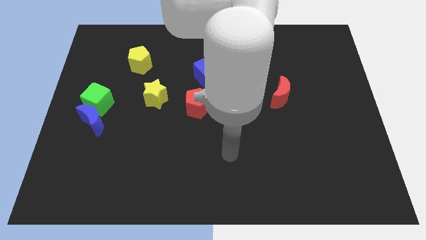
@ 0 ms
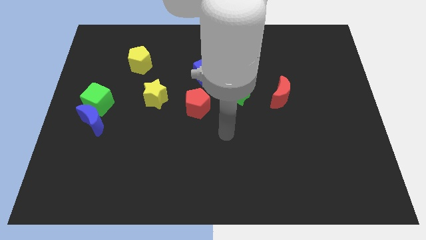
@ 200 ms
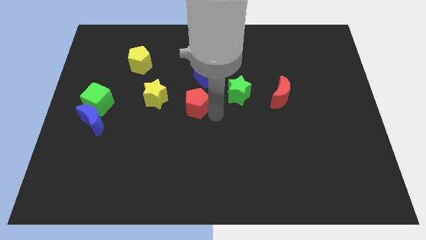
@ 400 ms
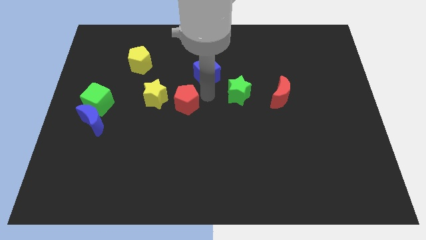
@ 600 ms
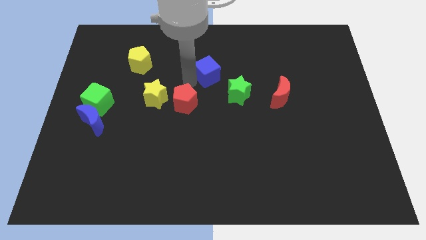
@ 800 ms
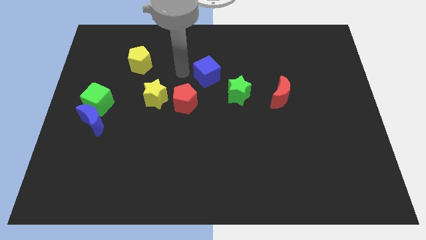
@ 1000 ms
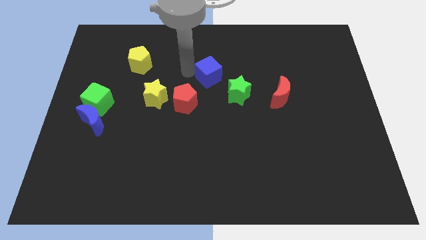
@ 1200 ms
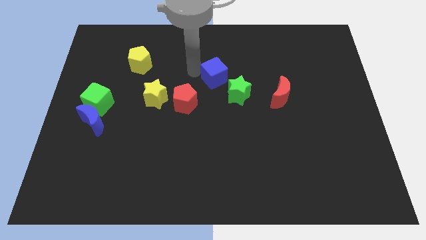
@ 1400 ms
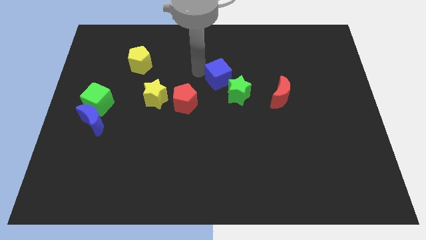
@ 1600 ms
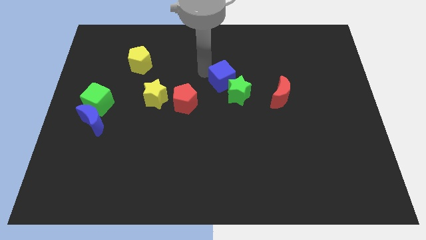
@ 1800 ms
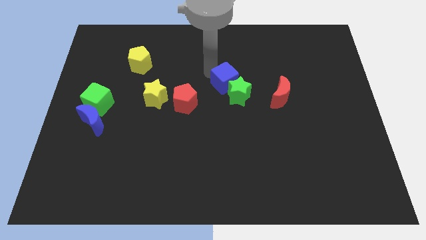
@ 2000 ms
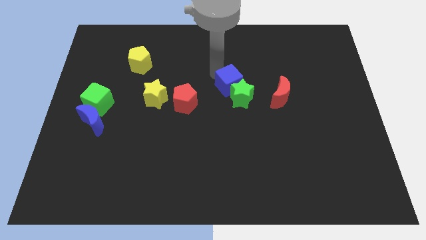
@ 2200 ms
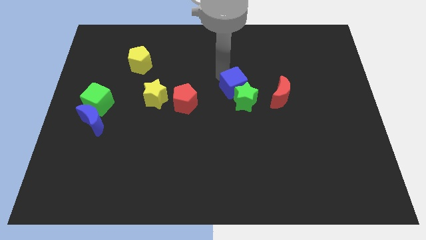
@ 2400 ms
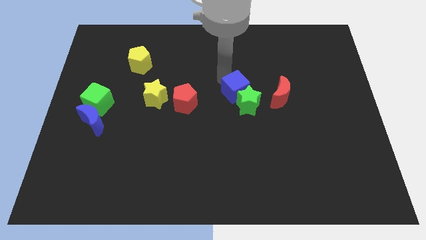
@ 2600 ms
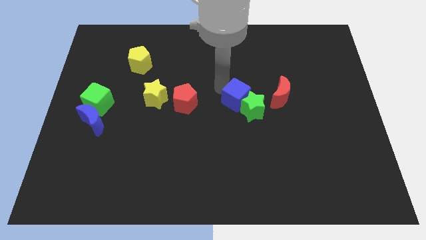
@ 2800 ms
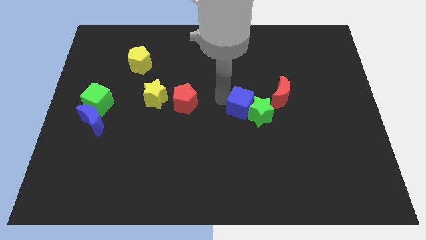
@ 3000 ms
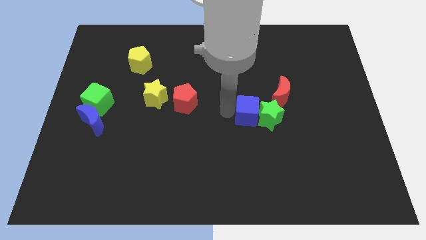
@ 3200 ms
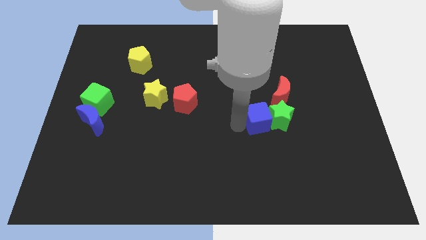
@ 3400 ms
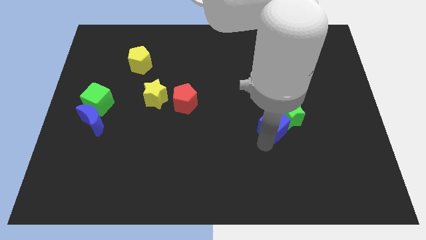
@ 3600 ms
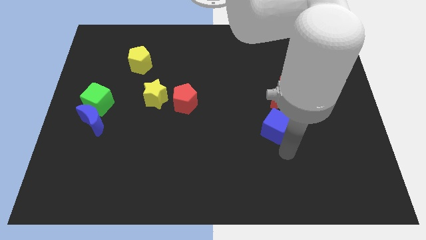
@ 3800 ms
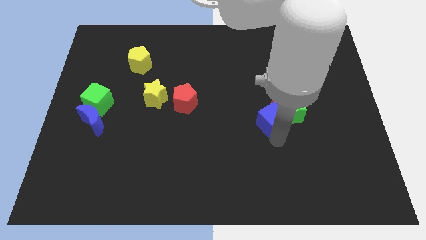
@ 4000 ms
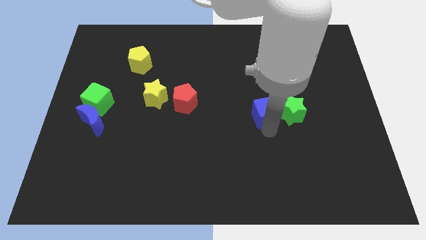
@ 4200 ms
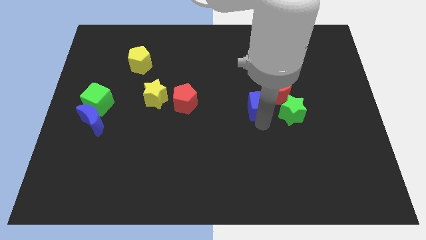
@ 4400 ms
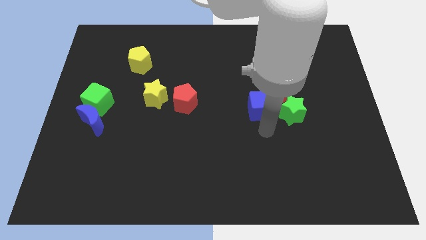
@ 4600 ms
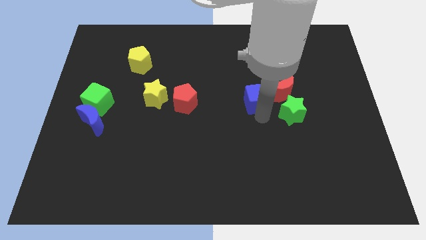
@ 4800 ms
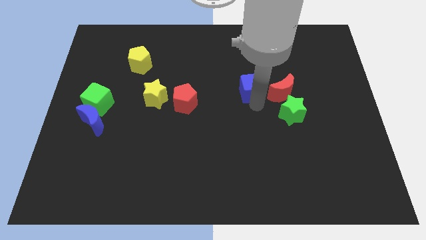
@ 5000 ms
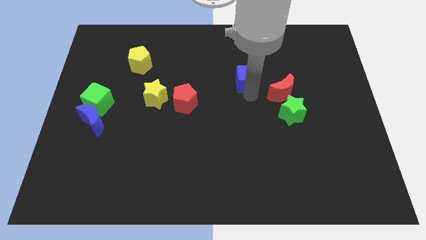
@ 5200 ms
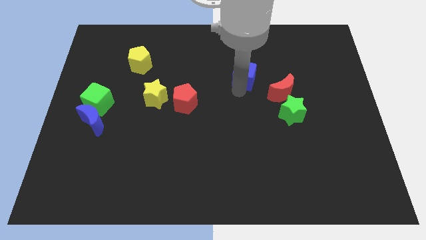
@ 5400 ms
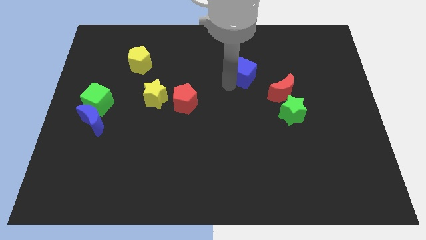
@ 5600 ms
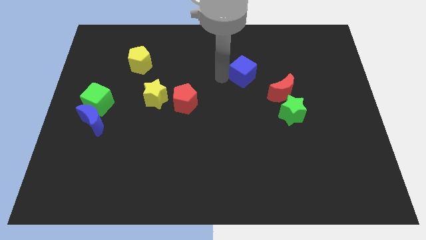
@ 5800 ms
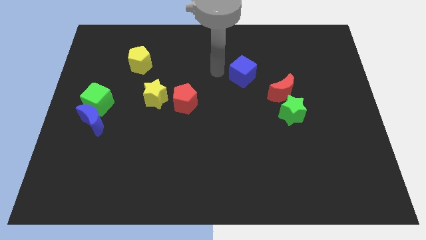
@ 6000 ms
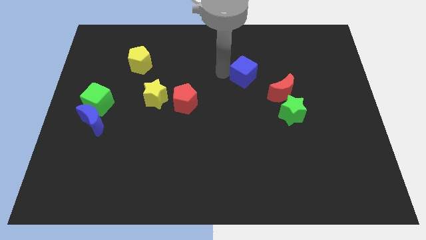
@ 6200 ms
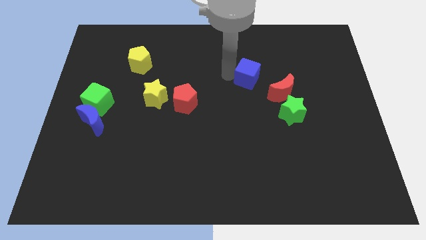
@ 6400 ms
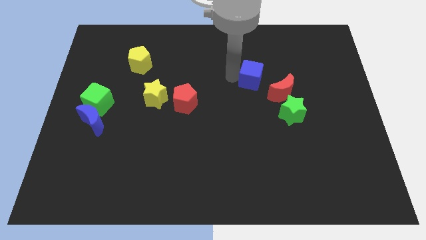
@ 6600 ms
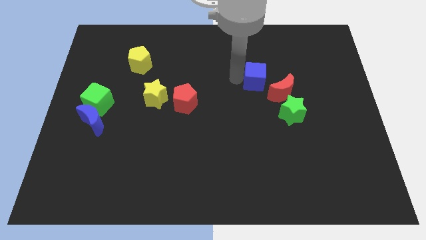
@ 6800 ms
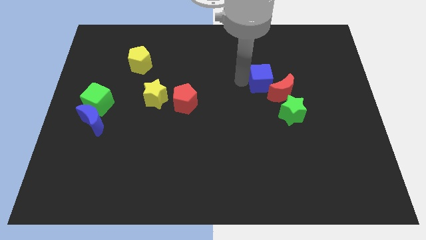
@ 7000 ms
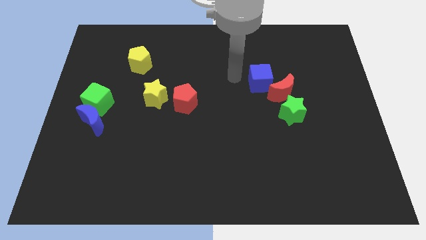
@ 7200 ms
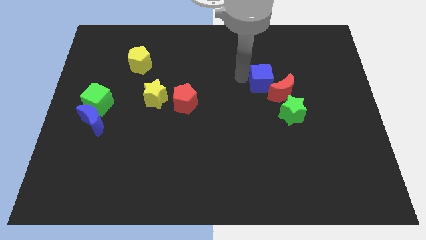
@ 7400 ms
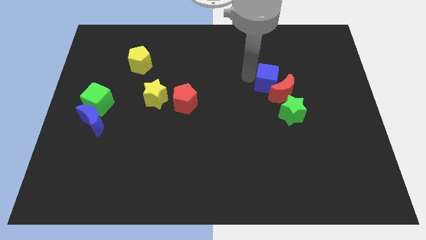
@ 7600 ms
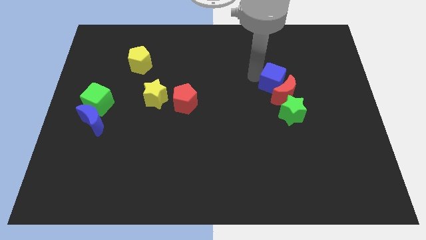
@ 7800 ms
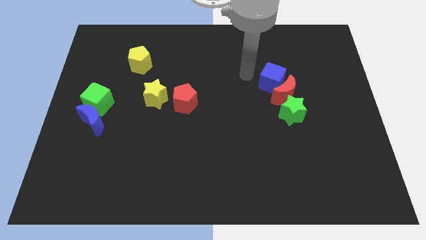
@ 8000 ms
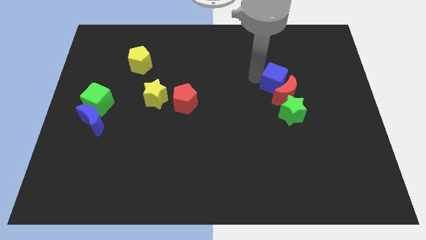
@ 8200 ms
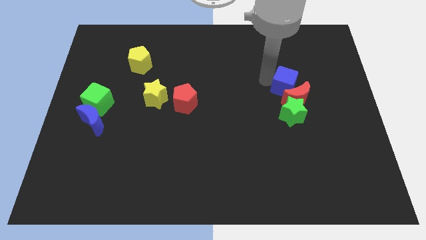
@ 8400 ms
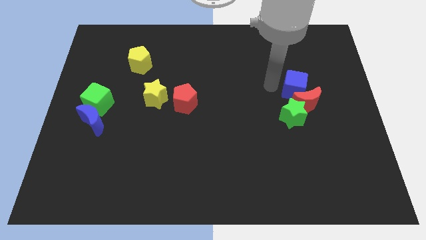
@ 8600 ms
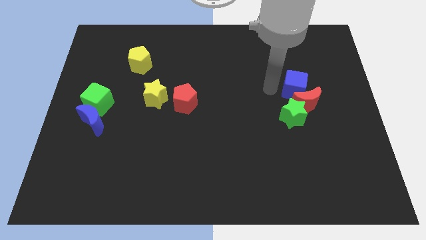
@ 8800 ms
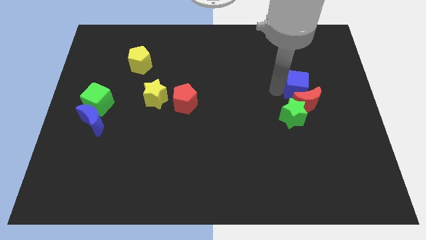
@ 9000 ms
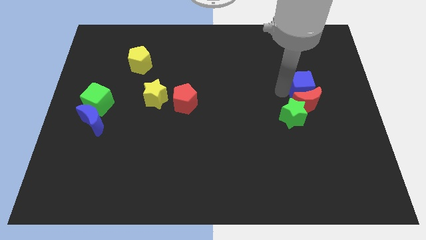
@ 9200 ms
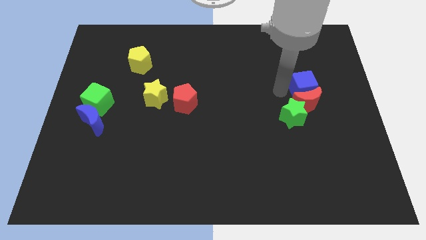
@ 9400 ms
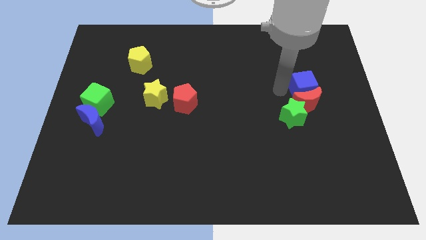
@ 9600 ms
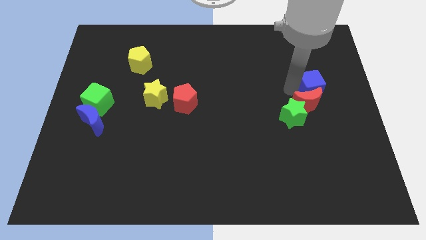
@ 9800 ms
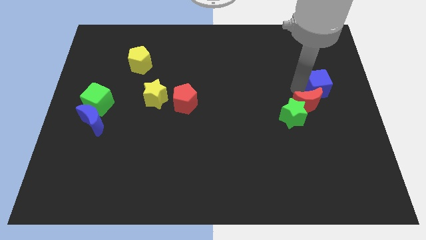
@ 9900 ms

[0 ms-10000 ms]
push the blue cube to the right side
